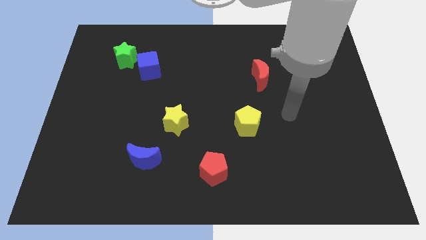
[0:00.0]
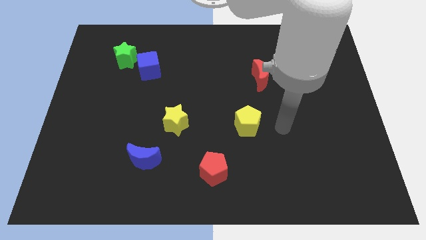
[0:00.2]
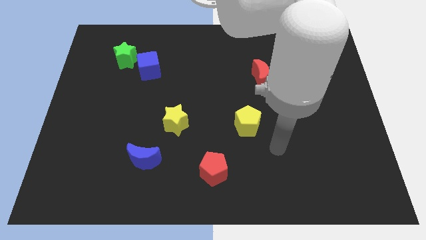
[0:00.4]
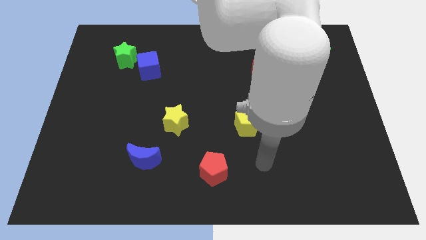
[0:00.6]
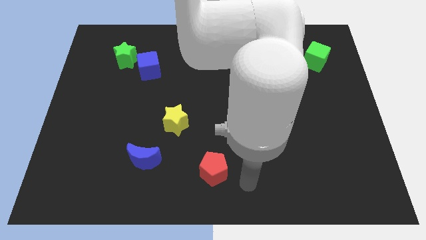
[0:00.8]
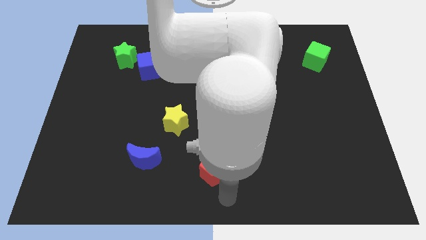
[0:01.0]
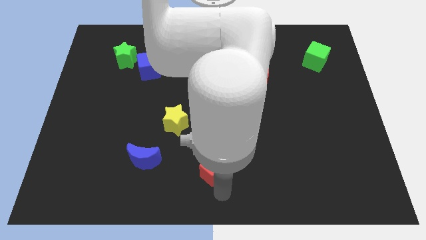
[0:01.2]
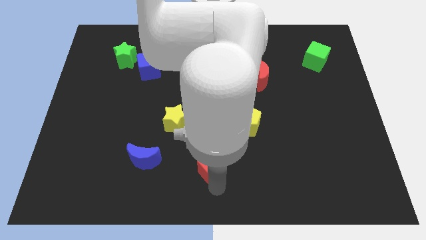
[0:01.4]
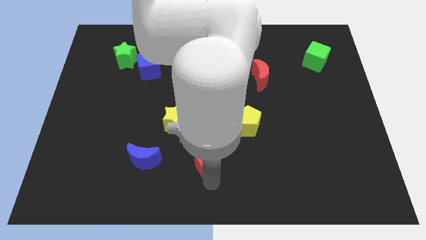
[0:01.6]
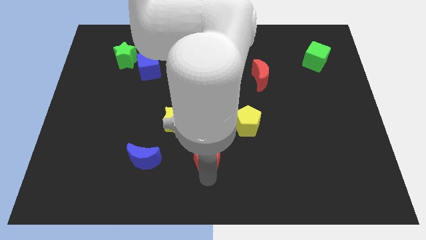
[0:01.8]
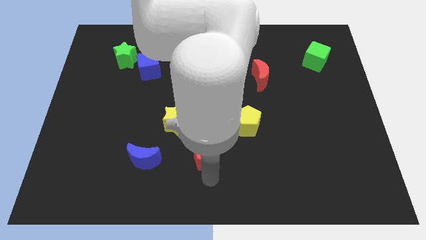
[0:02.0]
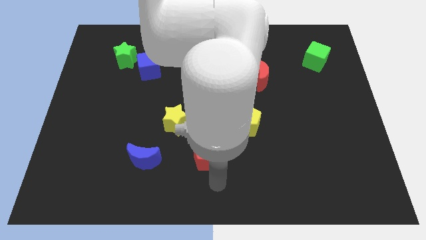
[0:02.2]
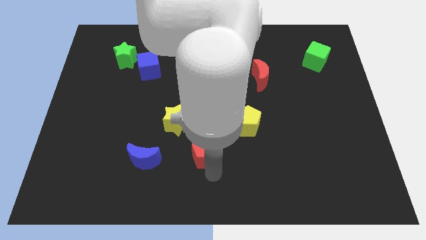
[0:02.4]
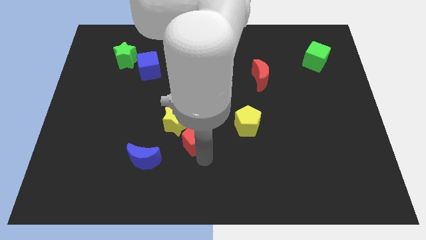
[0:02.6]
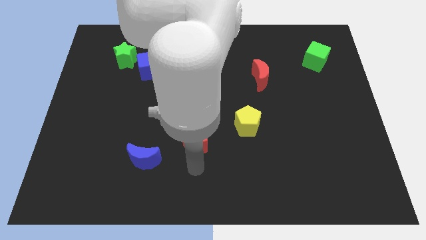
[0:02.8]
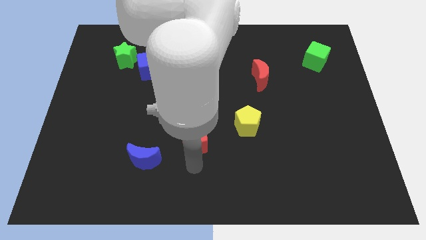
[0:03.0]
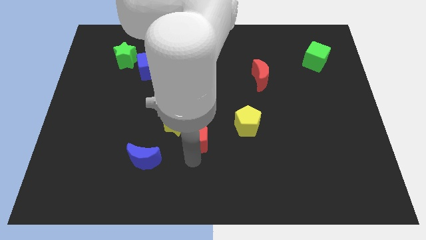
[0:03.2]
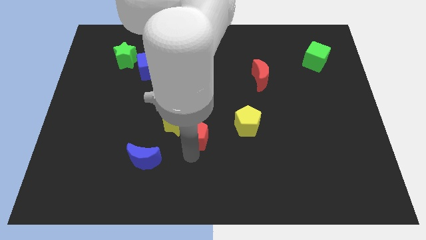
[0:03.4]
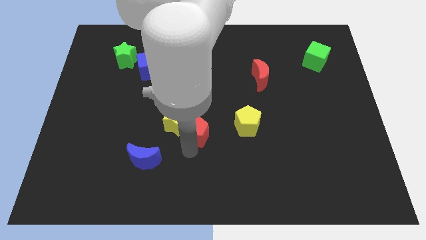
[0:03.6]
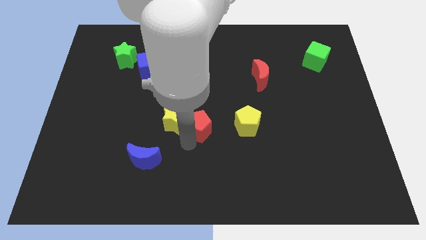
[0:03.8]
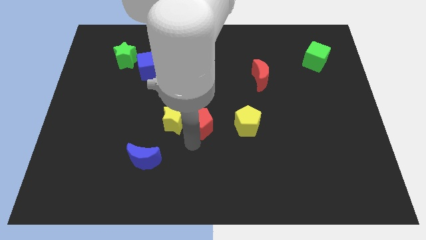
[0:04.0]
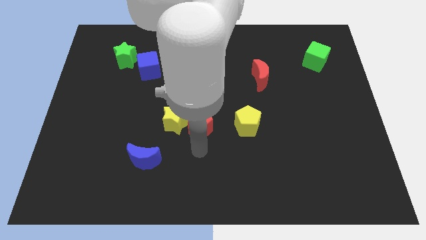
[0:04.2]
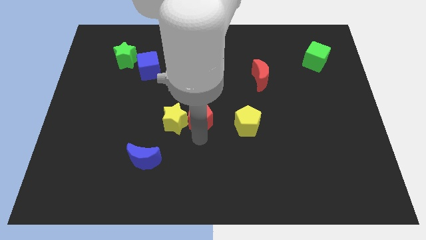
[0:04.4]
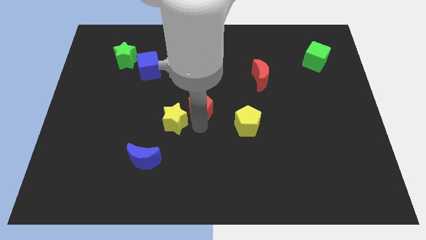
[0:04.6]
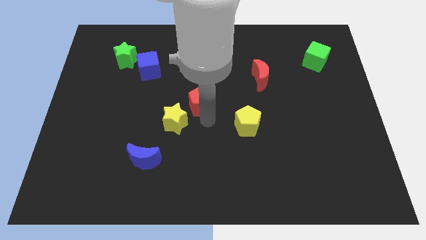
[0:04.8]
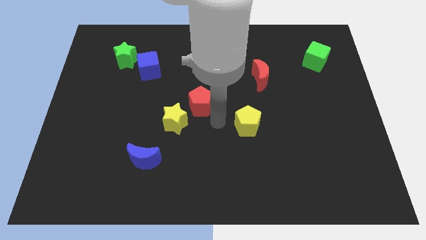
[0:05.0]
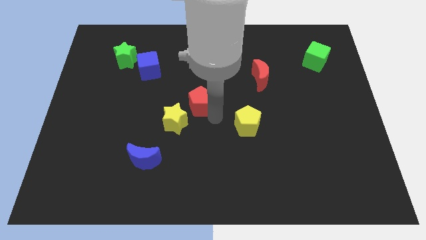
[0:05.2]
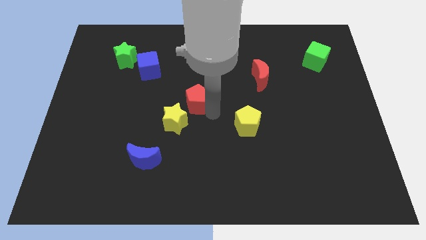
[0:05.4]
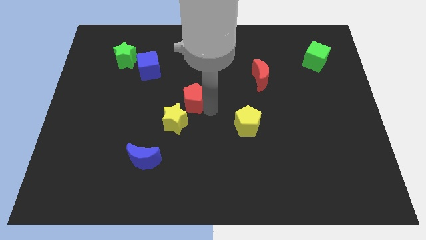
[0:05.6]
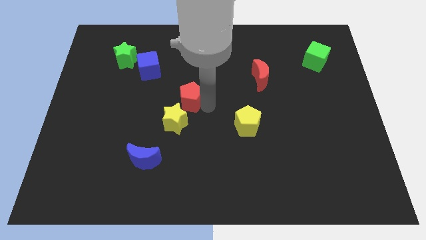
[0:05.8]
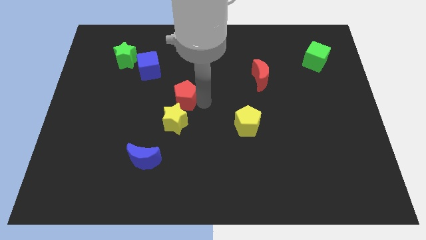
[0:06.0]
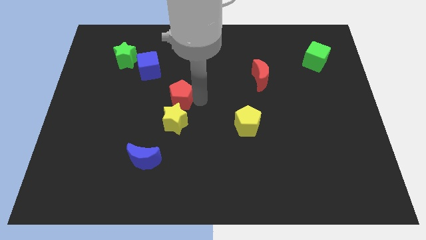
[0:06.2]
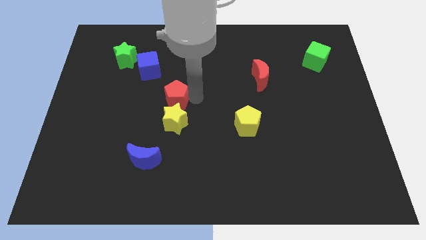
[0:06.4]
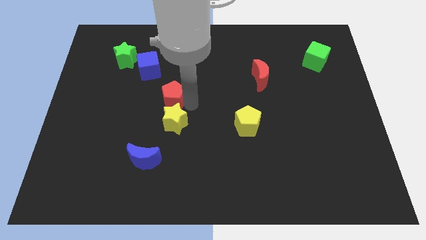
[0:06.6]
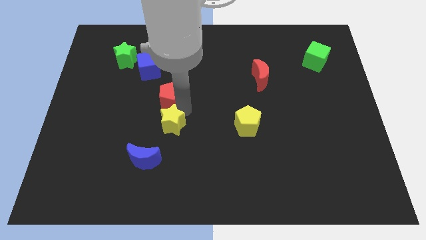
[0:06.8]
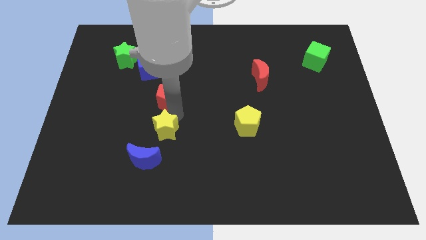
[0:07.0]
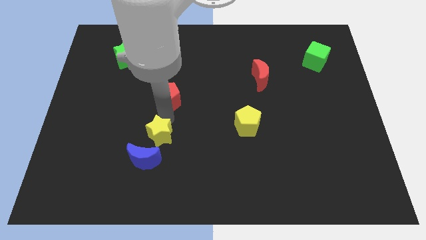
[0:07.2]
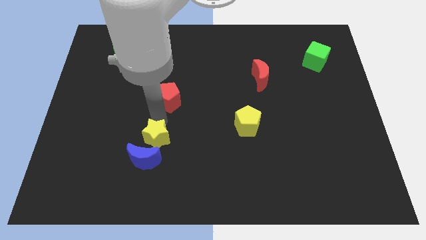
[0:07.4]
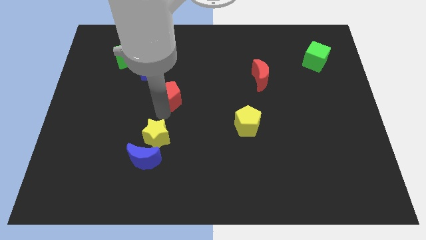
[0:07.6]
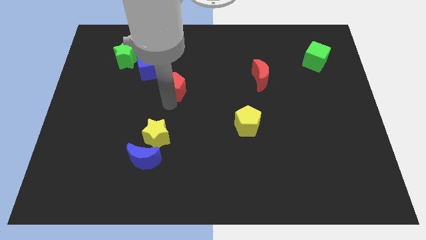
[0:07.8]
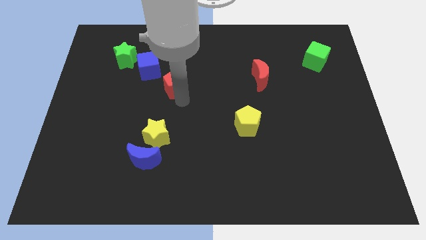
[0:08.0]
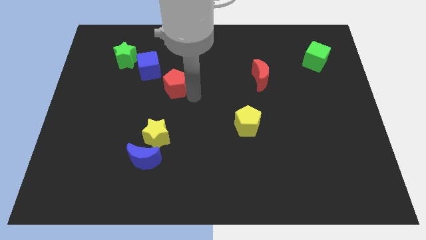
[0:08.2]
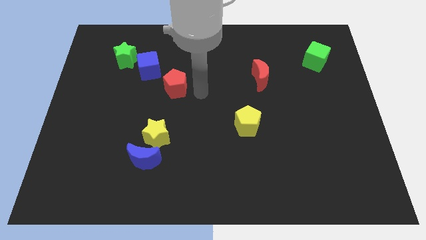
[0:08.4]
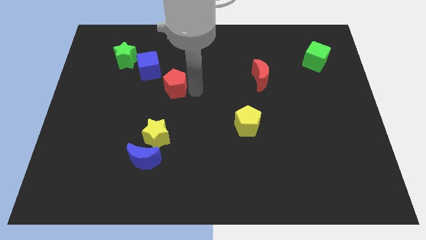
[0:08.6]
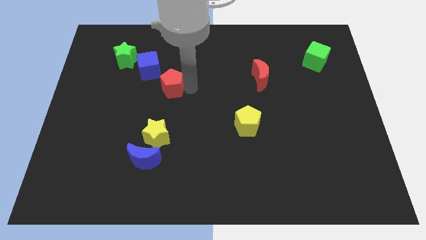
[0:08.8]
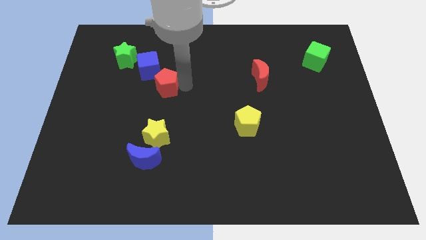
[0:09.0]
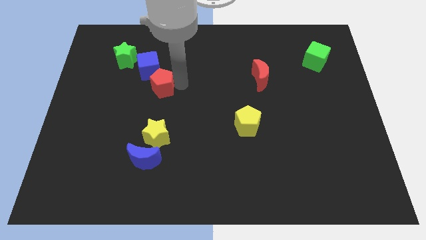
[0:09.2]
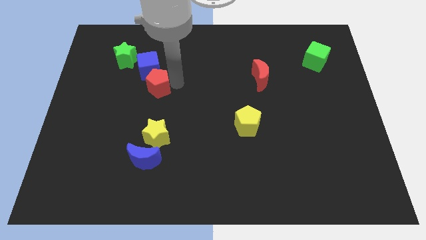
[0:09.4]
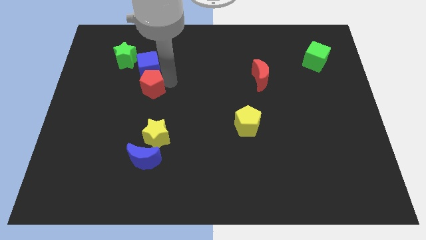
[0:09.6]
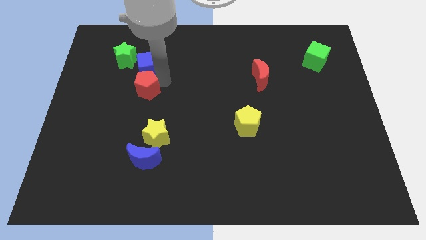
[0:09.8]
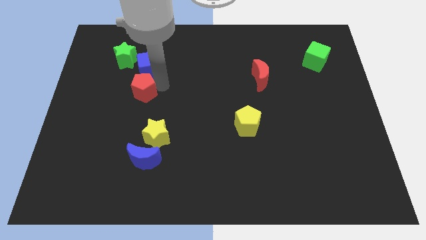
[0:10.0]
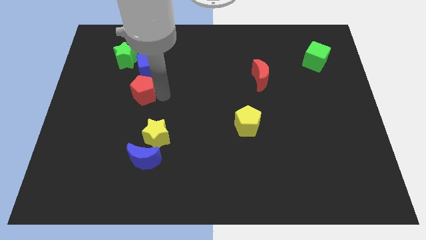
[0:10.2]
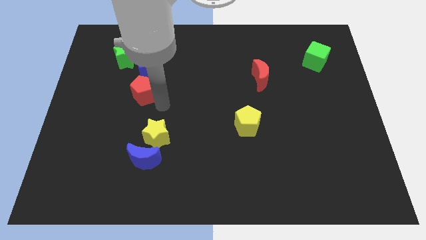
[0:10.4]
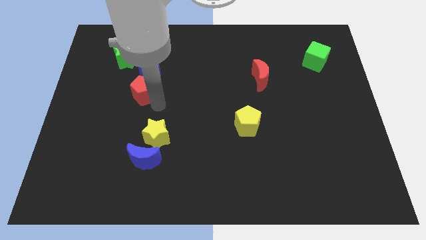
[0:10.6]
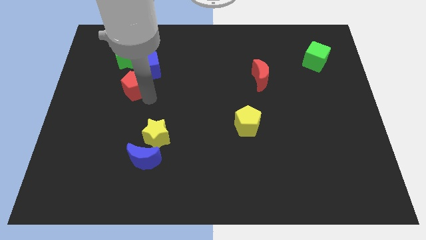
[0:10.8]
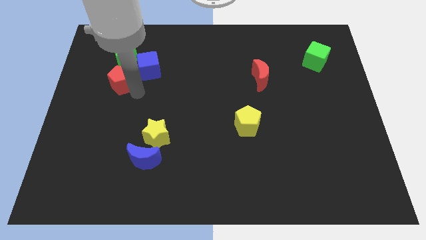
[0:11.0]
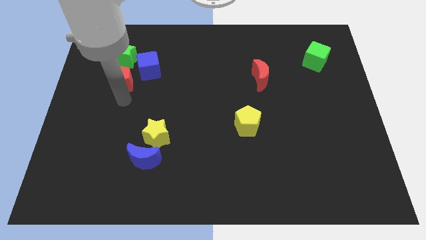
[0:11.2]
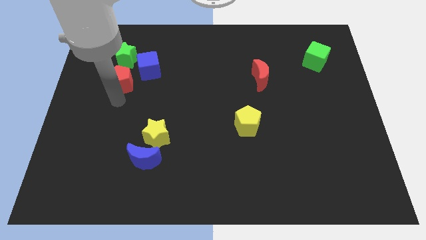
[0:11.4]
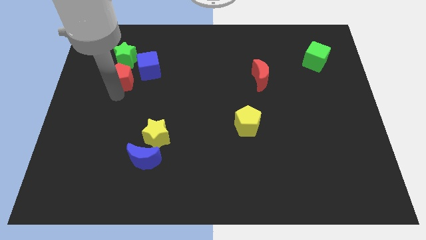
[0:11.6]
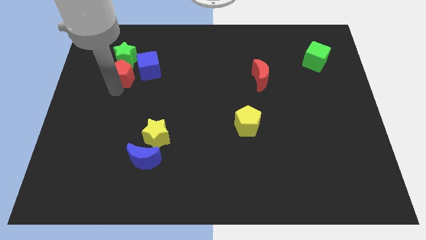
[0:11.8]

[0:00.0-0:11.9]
move the red pentagon close to the green star

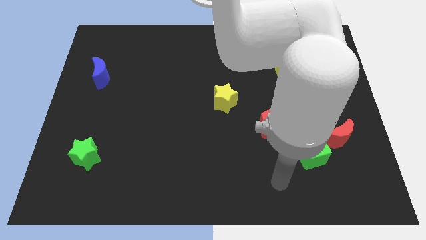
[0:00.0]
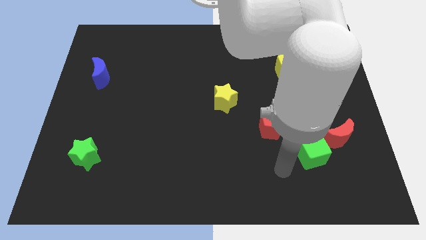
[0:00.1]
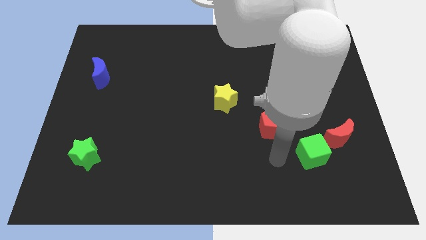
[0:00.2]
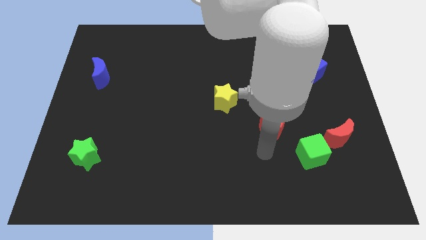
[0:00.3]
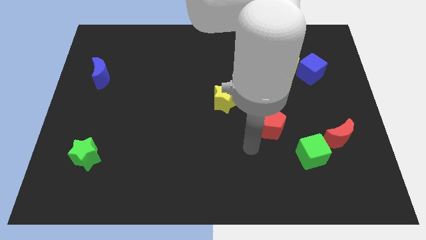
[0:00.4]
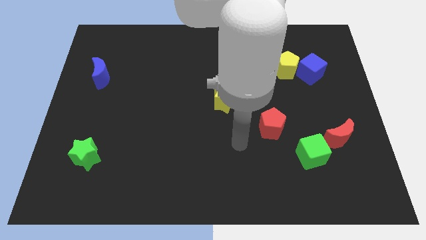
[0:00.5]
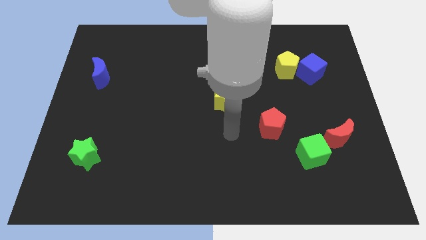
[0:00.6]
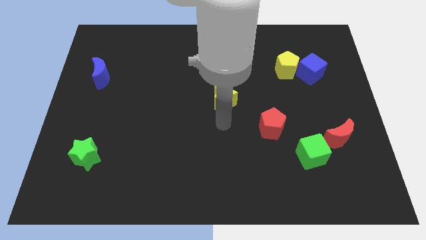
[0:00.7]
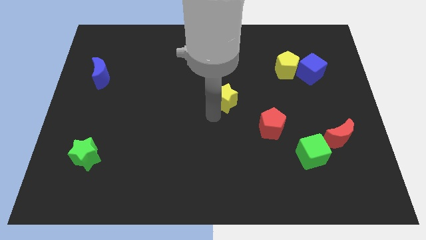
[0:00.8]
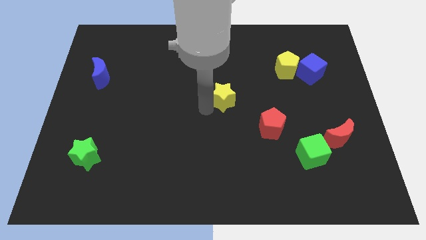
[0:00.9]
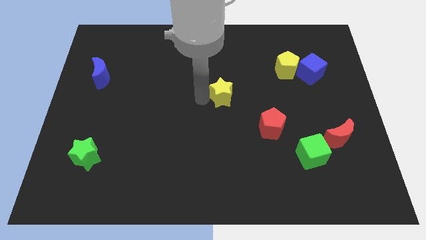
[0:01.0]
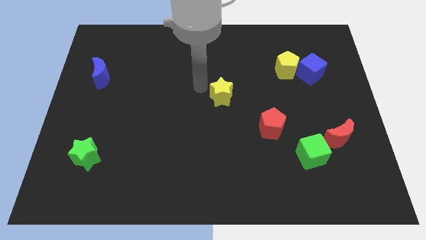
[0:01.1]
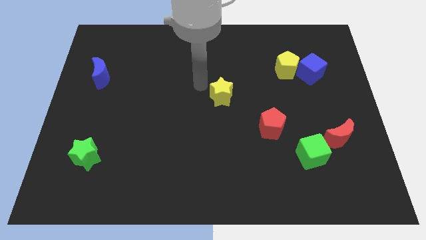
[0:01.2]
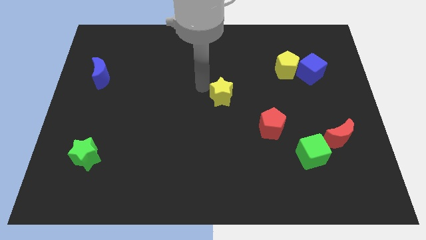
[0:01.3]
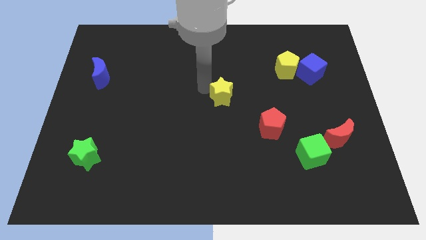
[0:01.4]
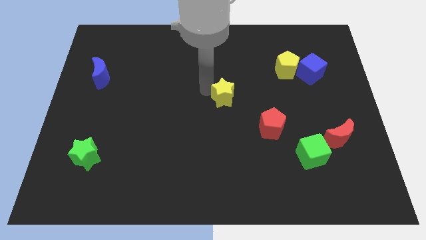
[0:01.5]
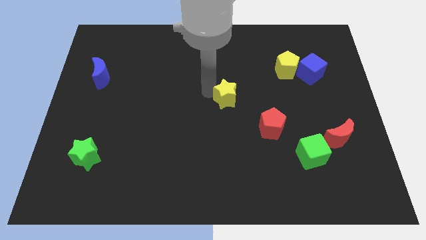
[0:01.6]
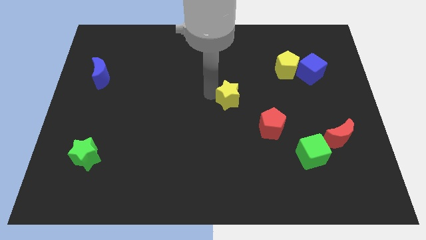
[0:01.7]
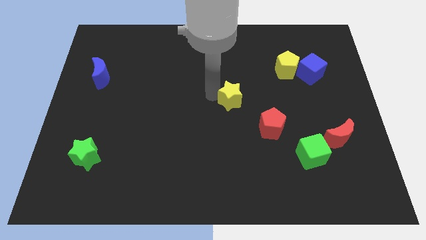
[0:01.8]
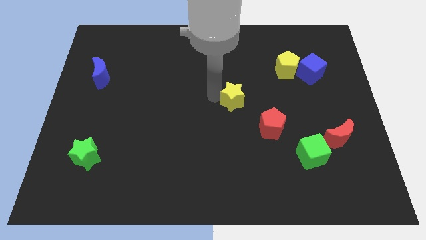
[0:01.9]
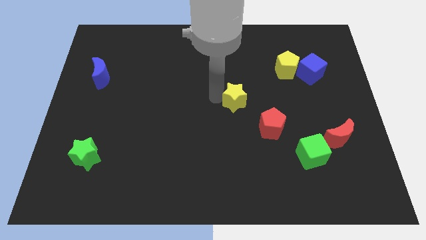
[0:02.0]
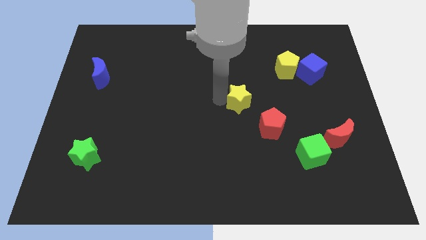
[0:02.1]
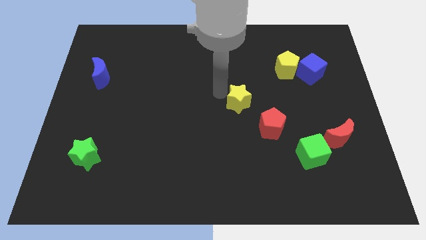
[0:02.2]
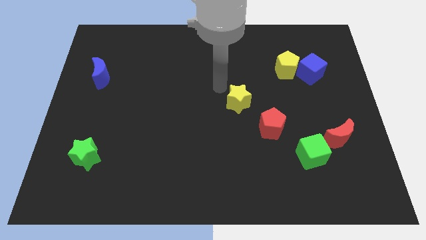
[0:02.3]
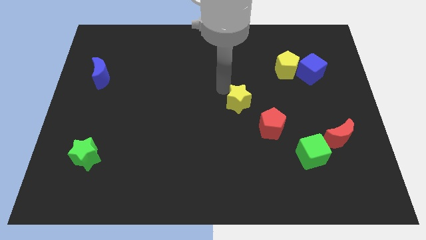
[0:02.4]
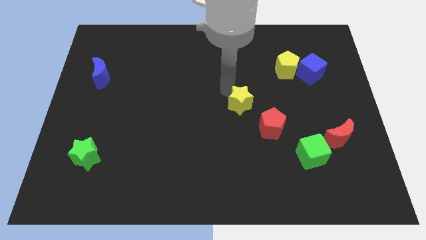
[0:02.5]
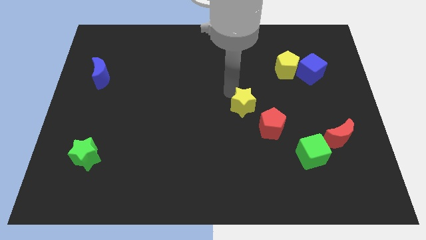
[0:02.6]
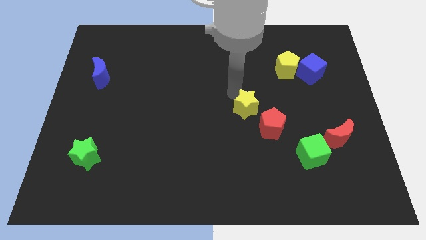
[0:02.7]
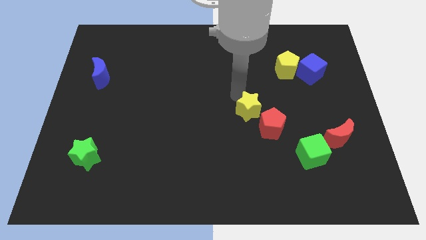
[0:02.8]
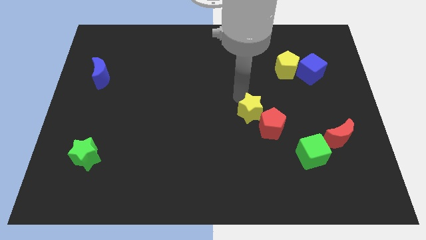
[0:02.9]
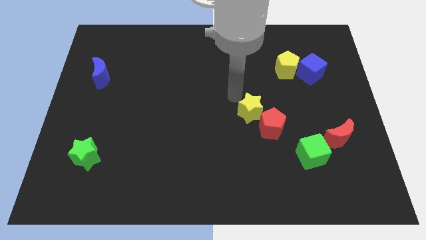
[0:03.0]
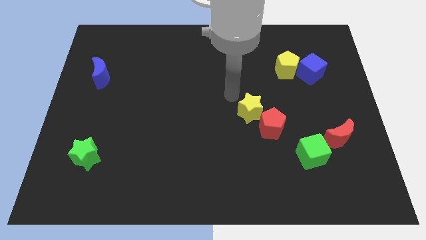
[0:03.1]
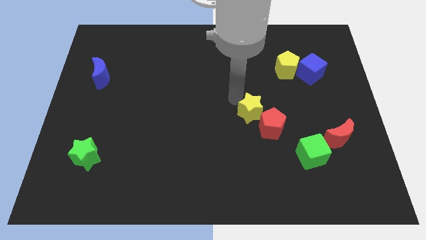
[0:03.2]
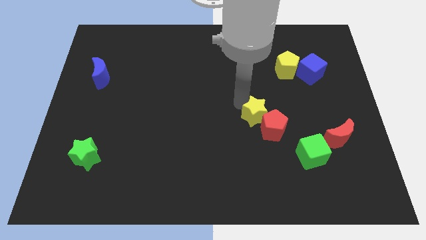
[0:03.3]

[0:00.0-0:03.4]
slide the yellow star towards the red pentagon
